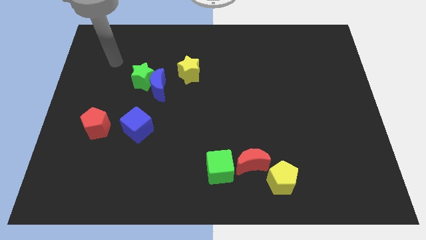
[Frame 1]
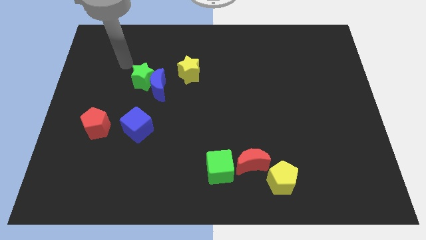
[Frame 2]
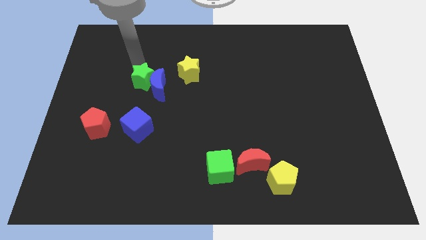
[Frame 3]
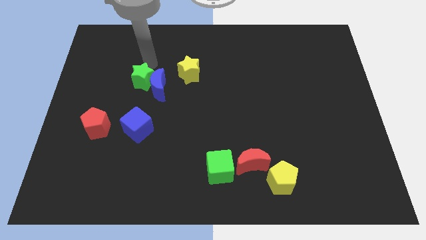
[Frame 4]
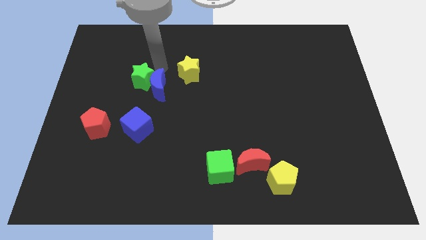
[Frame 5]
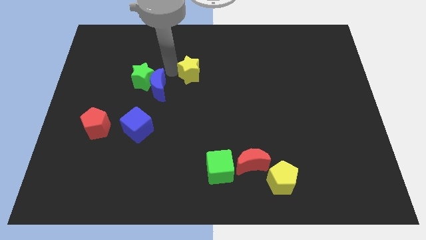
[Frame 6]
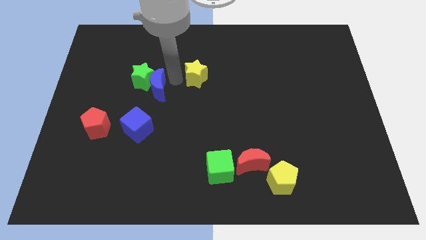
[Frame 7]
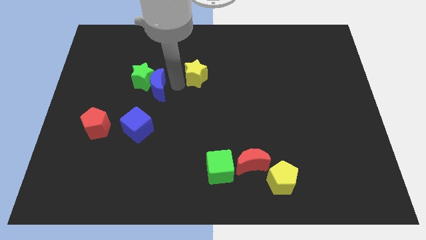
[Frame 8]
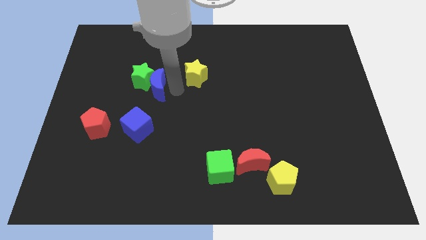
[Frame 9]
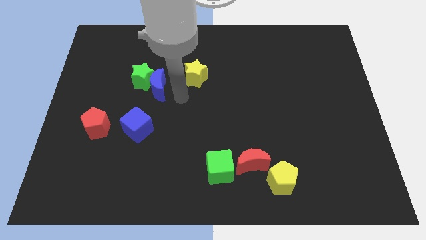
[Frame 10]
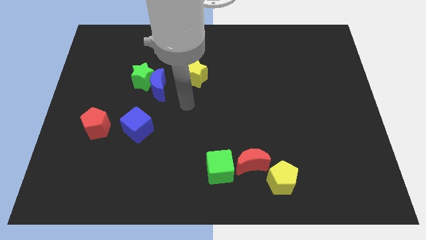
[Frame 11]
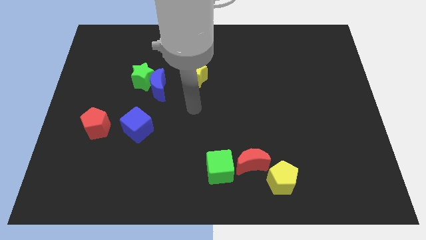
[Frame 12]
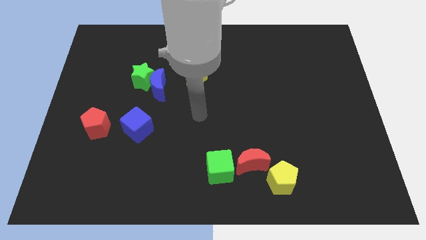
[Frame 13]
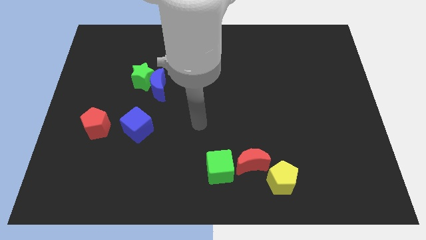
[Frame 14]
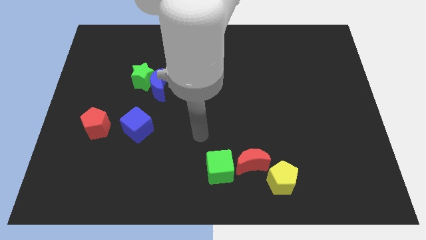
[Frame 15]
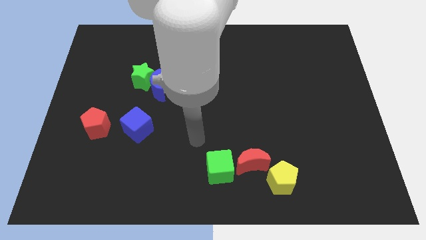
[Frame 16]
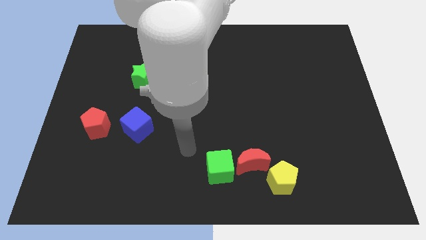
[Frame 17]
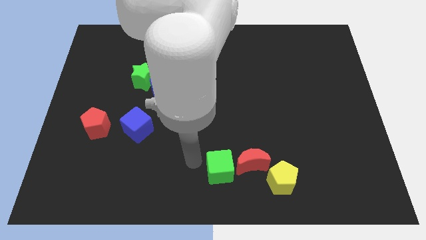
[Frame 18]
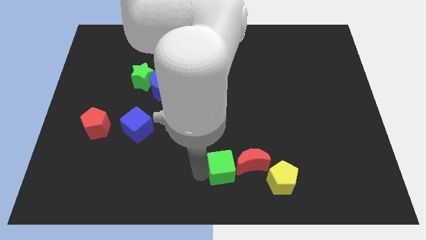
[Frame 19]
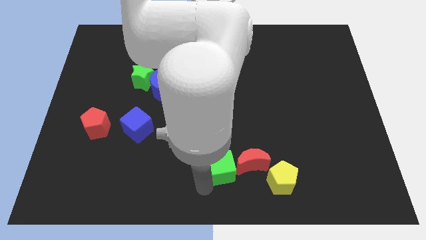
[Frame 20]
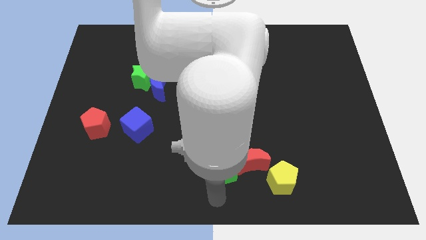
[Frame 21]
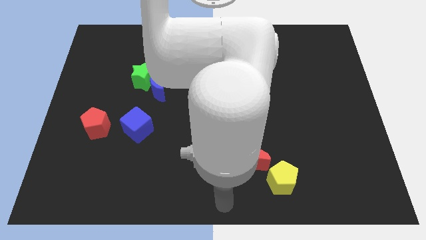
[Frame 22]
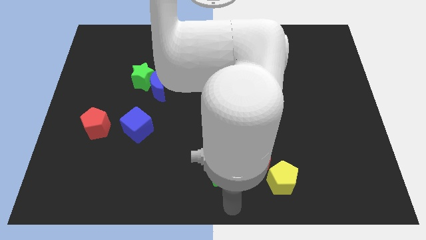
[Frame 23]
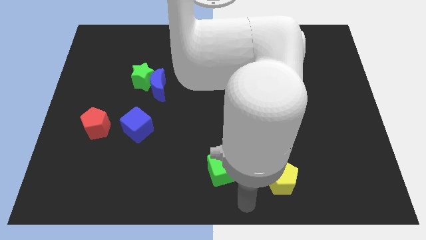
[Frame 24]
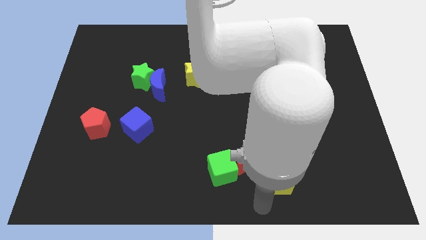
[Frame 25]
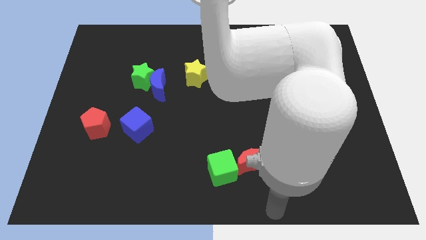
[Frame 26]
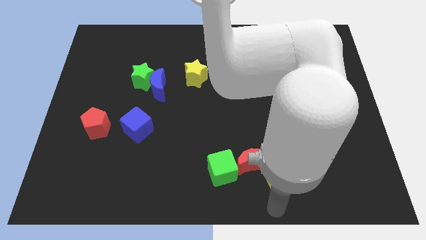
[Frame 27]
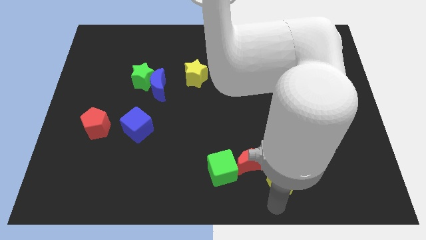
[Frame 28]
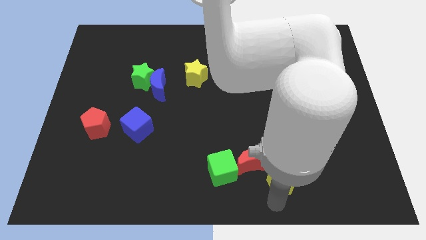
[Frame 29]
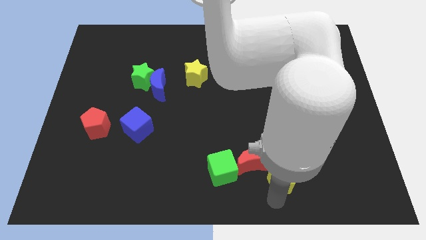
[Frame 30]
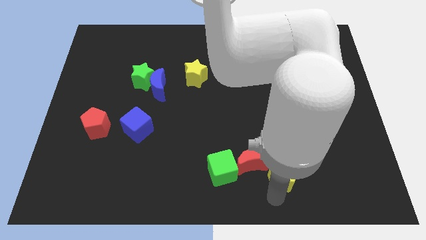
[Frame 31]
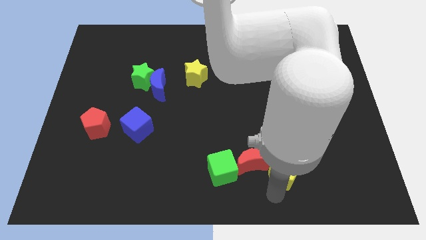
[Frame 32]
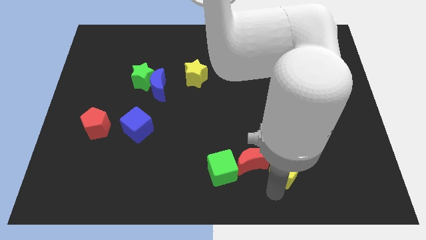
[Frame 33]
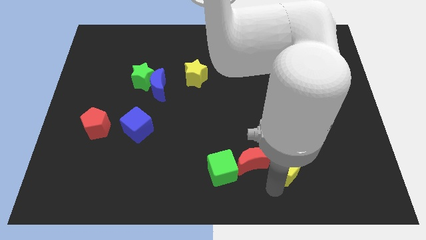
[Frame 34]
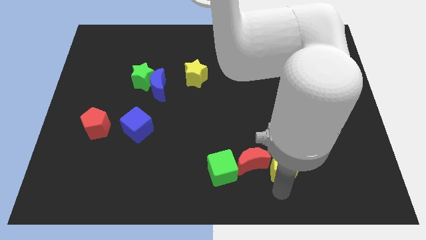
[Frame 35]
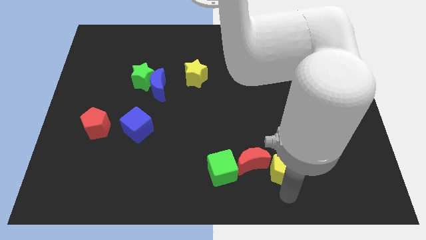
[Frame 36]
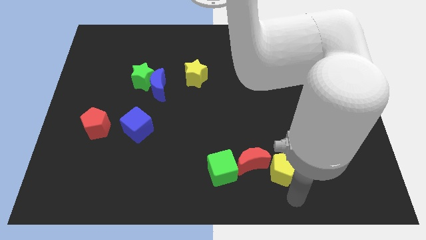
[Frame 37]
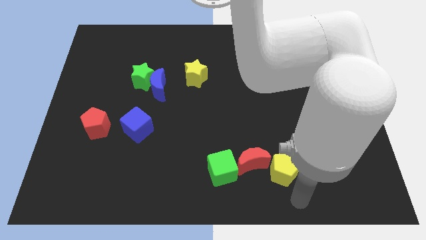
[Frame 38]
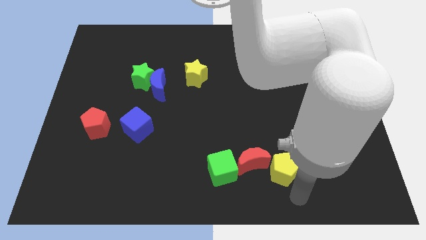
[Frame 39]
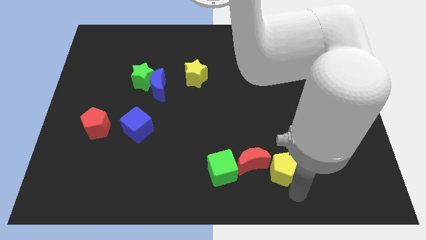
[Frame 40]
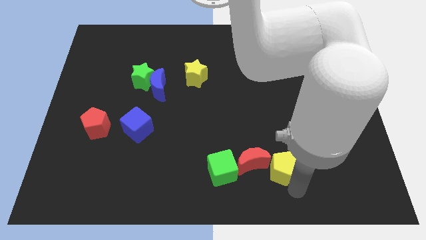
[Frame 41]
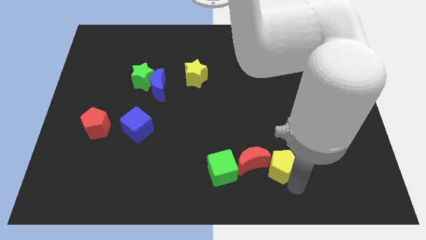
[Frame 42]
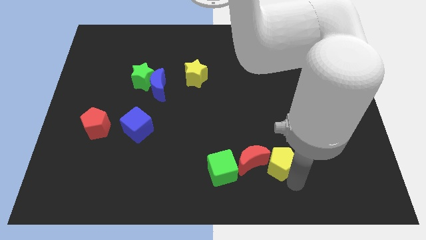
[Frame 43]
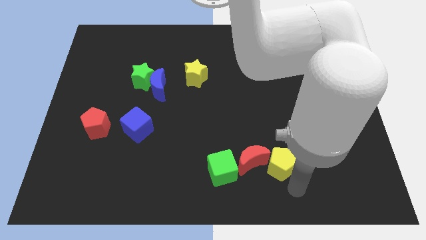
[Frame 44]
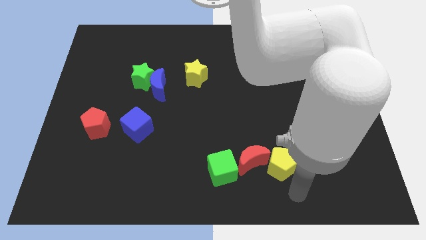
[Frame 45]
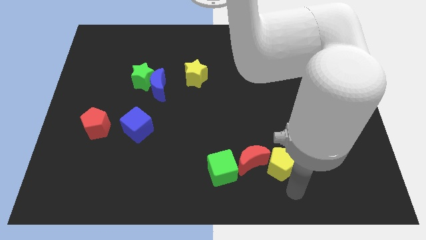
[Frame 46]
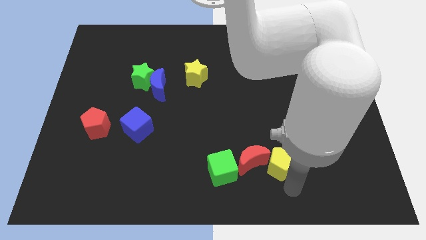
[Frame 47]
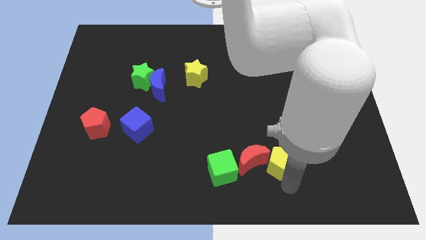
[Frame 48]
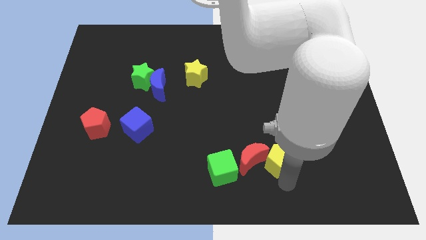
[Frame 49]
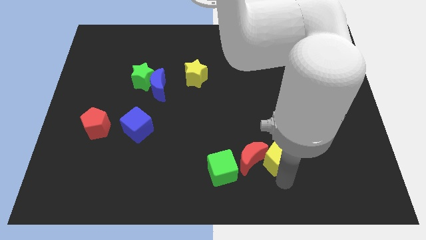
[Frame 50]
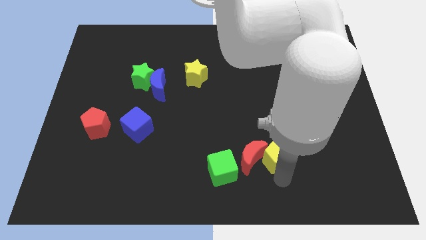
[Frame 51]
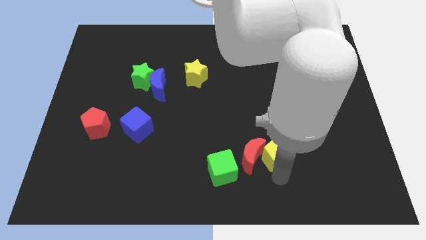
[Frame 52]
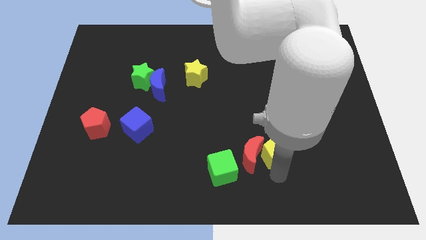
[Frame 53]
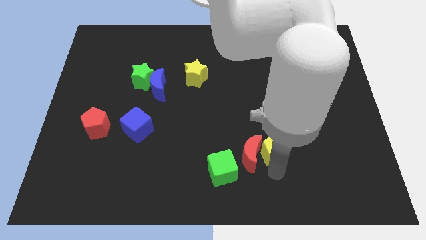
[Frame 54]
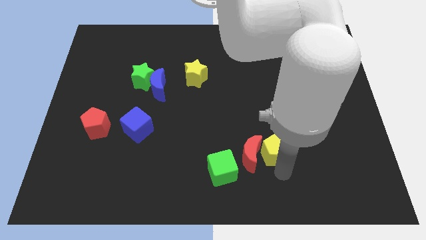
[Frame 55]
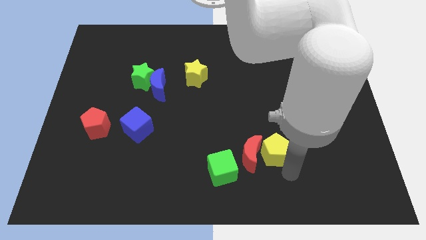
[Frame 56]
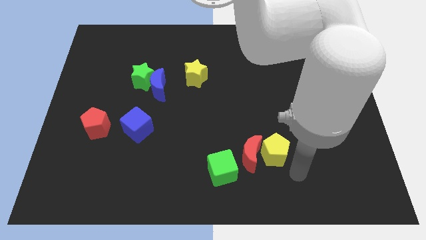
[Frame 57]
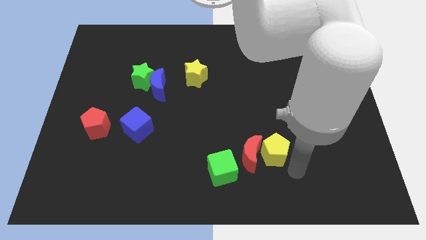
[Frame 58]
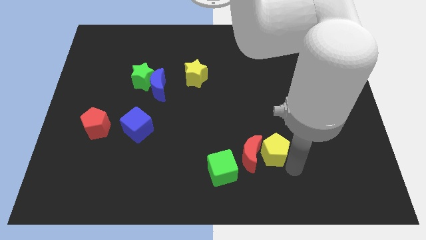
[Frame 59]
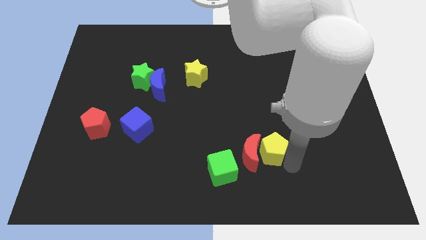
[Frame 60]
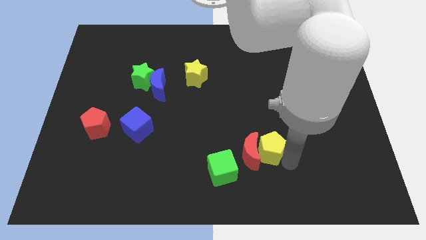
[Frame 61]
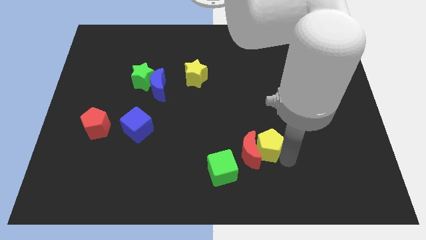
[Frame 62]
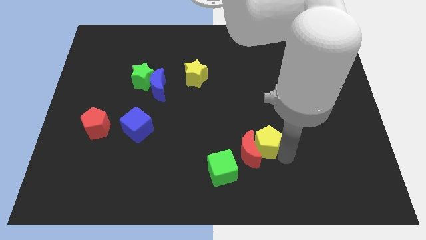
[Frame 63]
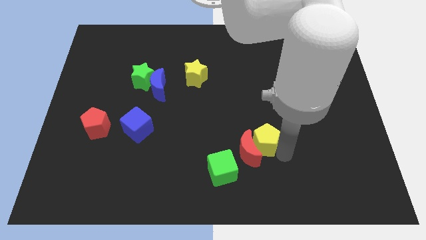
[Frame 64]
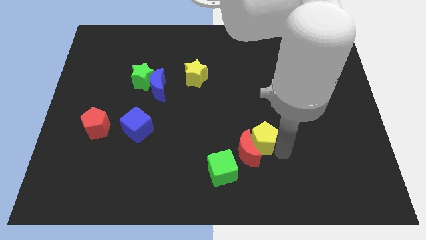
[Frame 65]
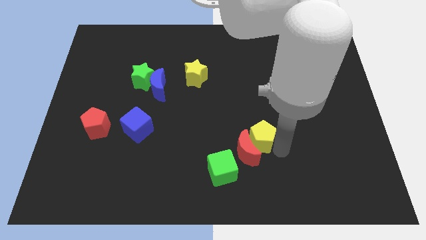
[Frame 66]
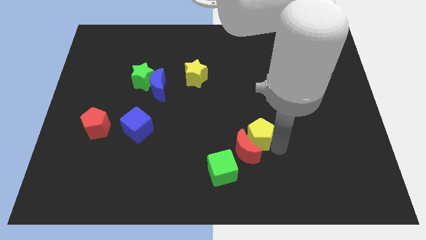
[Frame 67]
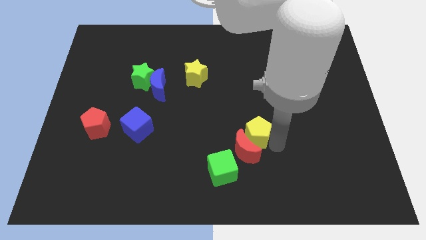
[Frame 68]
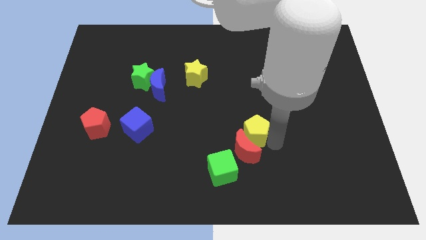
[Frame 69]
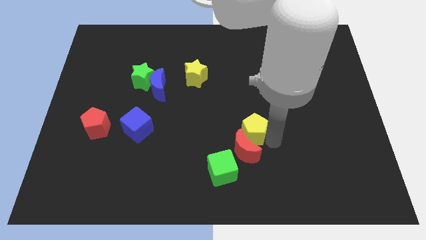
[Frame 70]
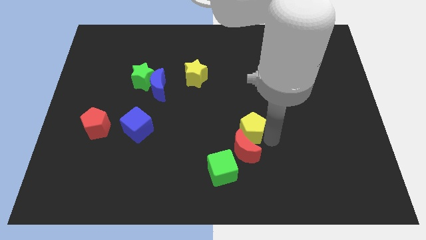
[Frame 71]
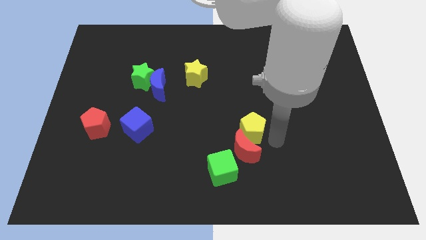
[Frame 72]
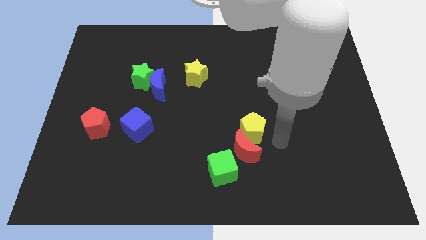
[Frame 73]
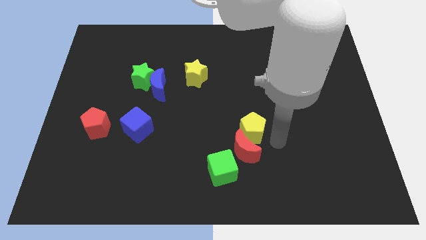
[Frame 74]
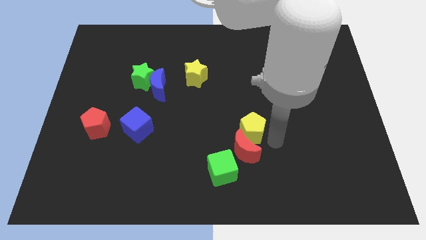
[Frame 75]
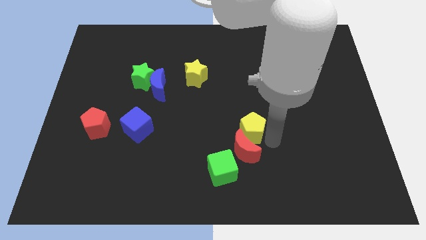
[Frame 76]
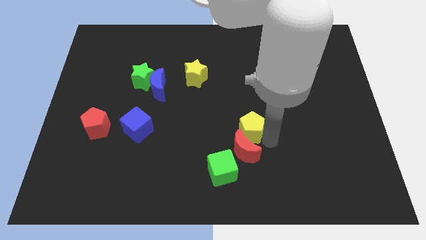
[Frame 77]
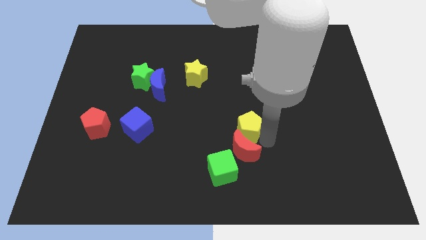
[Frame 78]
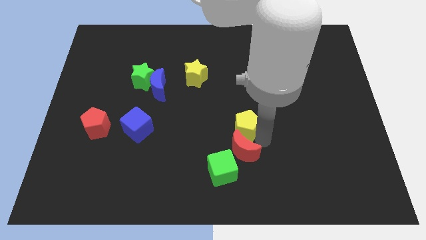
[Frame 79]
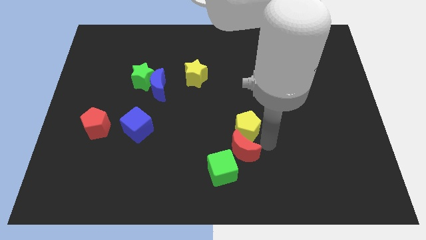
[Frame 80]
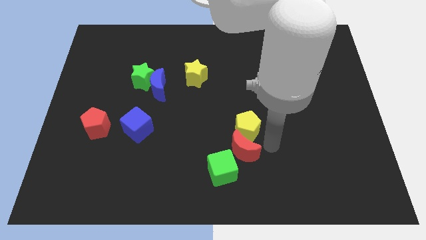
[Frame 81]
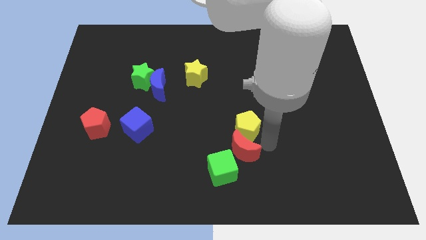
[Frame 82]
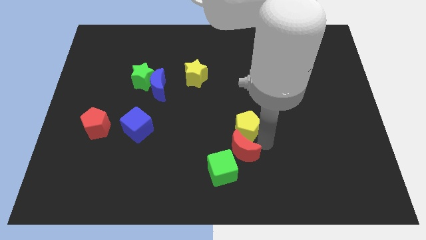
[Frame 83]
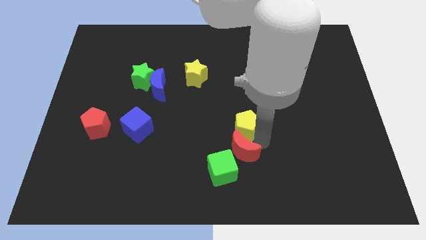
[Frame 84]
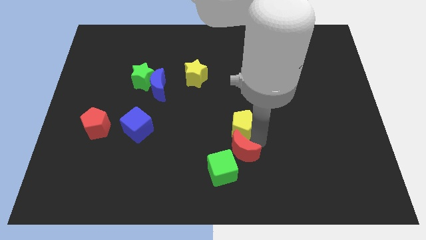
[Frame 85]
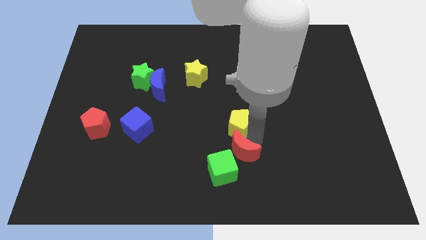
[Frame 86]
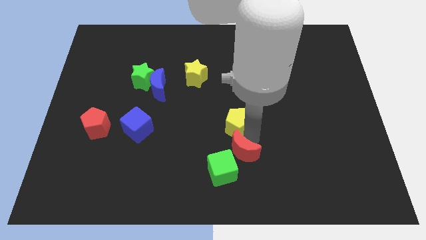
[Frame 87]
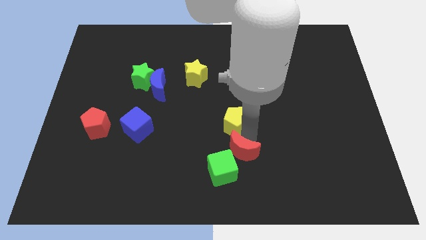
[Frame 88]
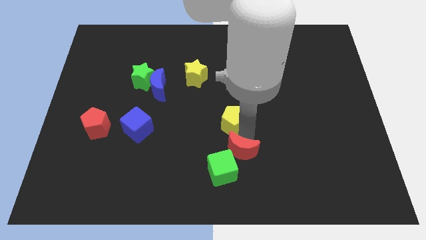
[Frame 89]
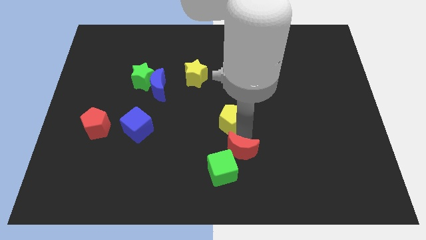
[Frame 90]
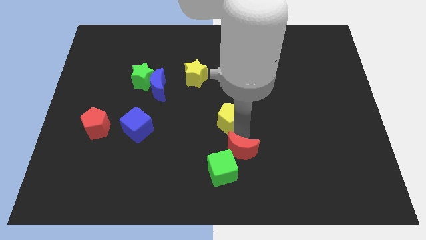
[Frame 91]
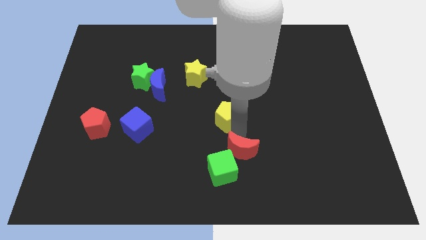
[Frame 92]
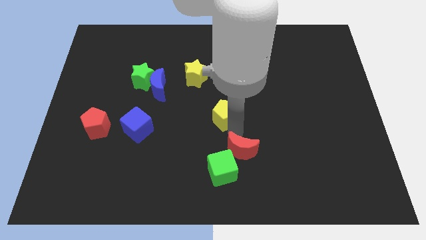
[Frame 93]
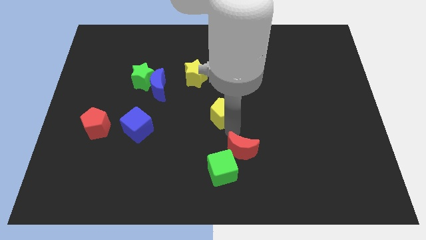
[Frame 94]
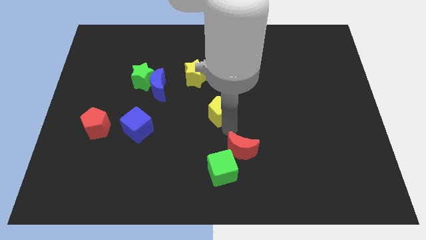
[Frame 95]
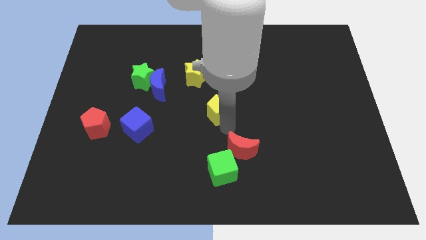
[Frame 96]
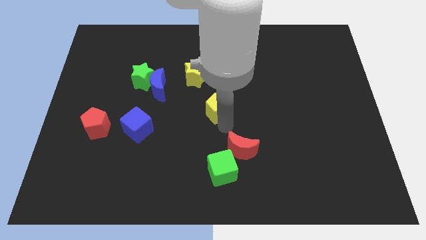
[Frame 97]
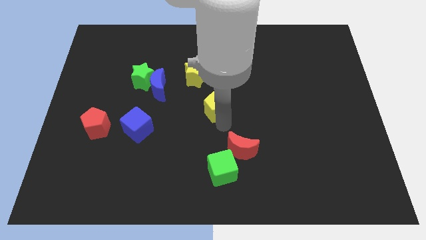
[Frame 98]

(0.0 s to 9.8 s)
slide the yellow pentagon to the bottom right side of the yellow star
